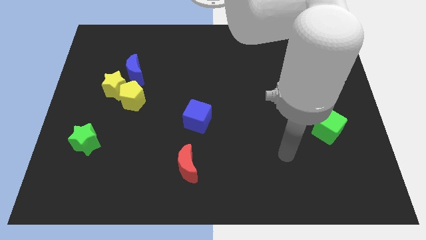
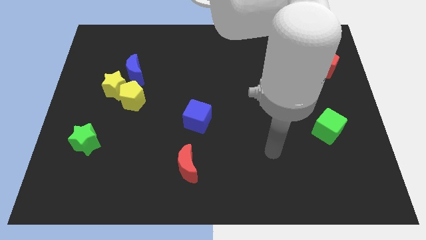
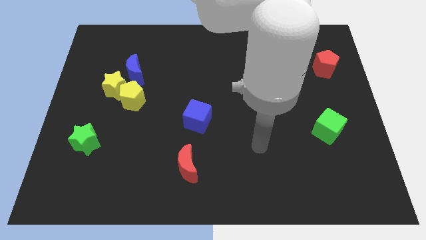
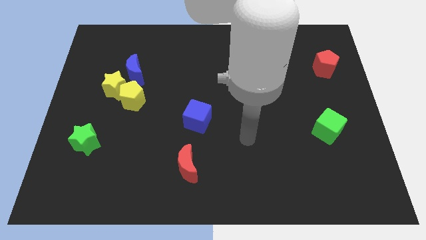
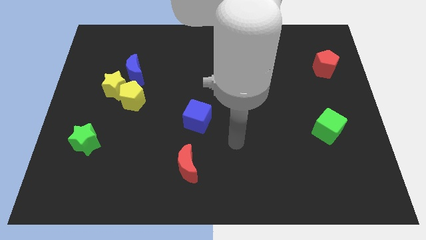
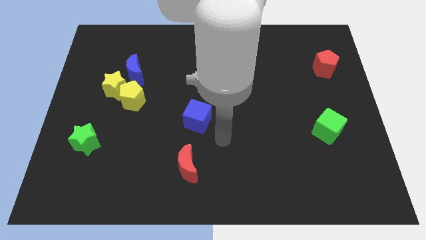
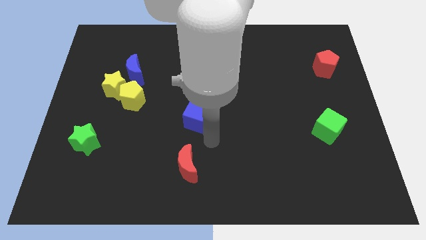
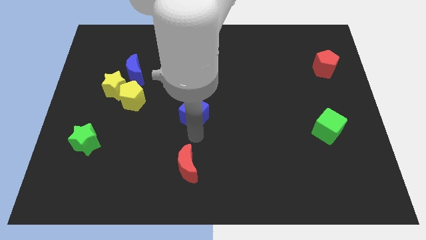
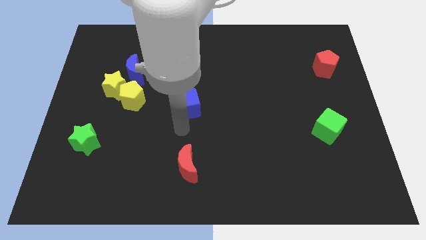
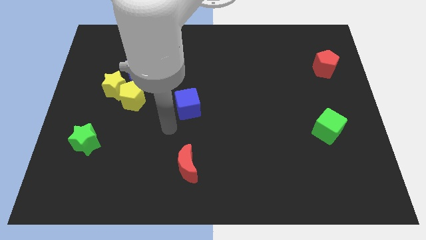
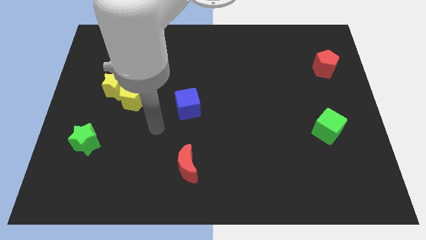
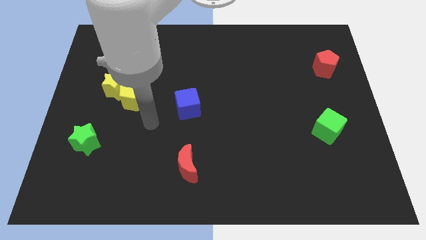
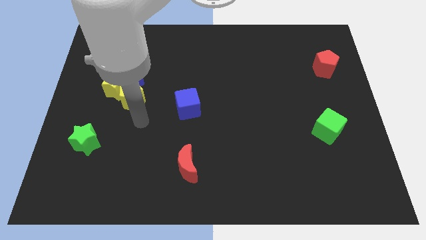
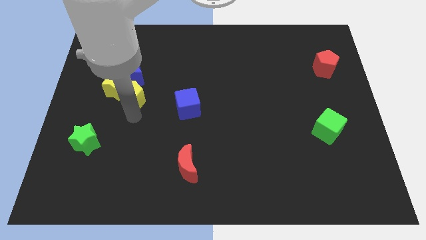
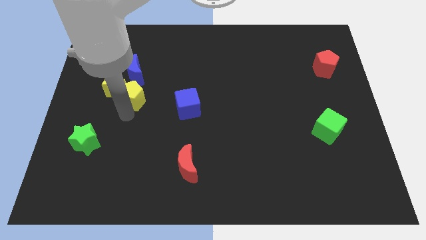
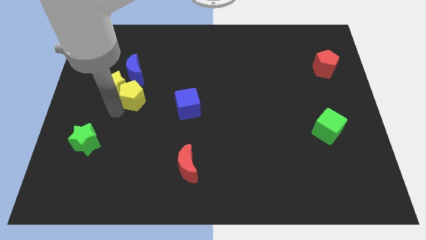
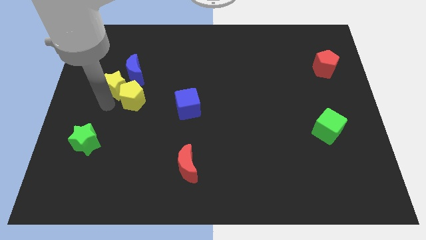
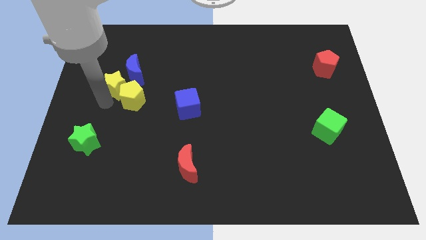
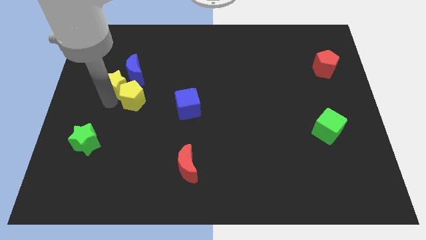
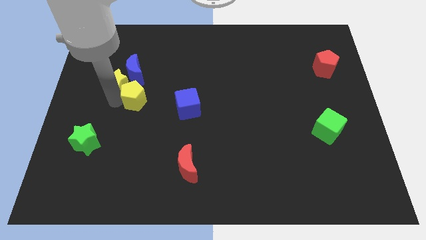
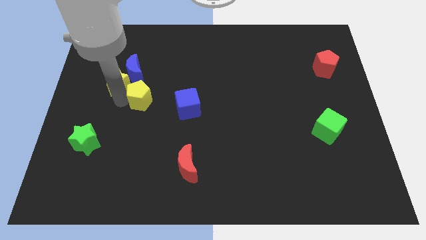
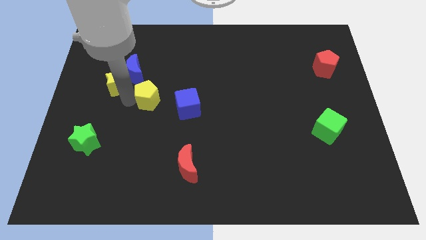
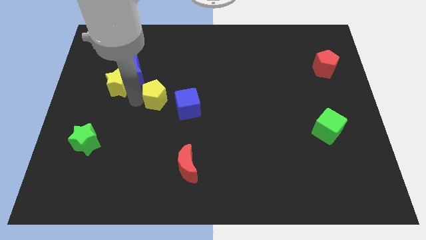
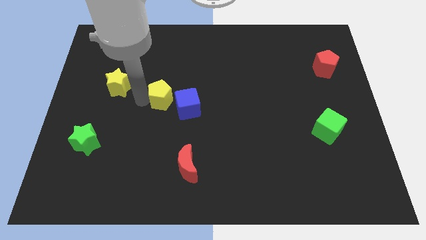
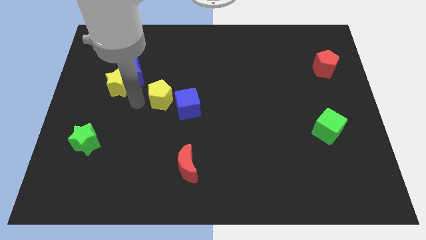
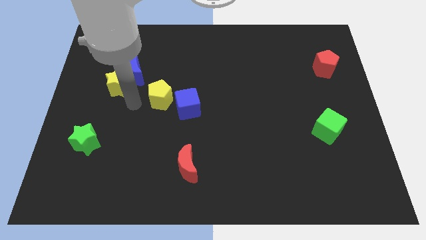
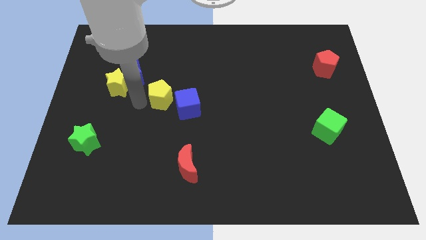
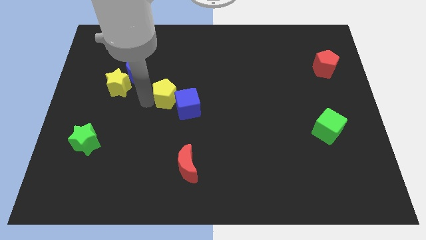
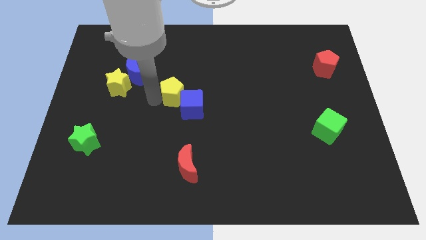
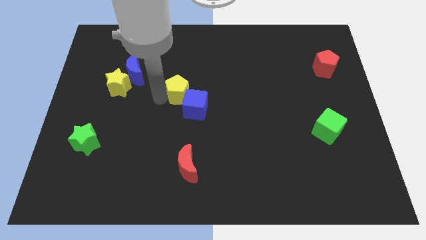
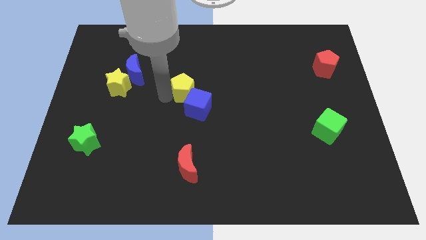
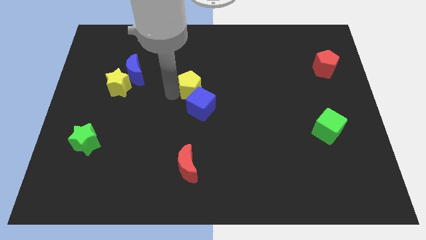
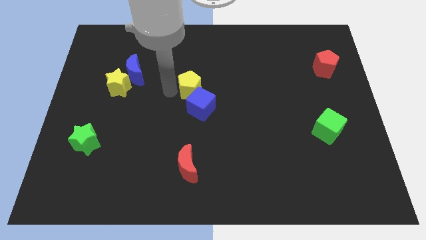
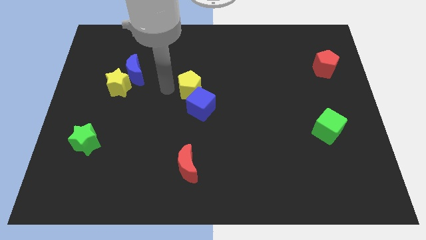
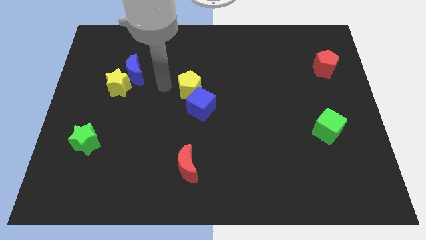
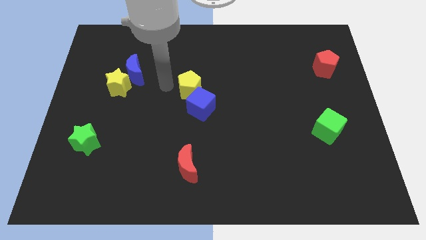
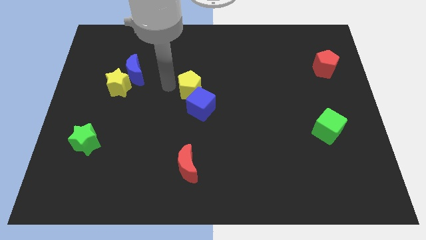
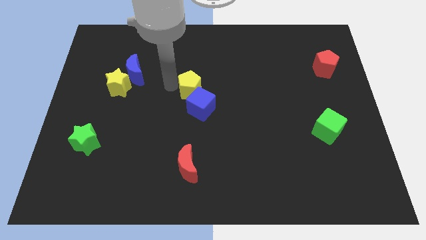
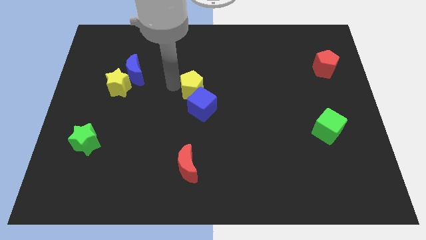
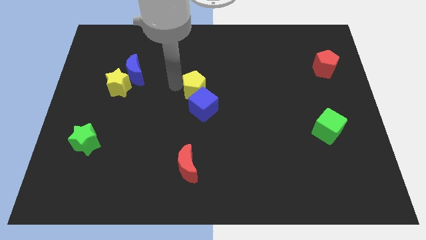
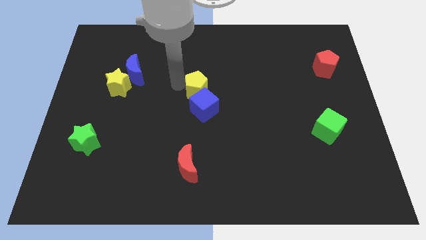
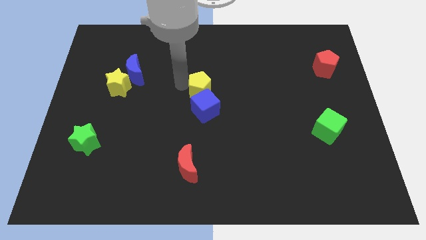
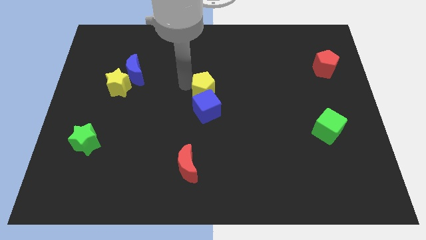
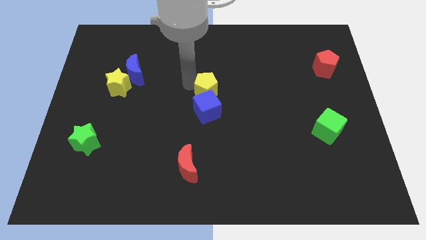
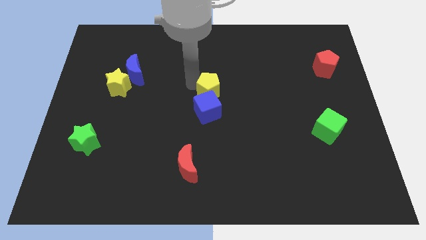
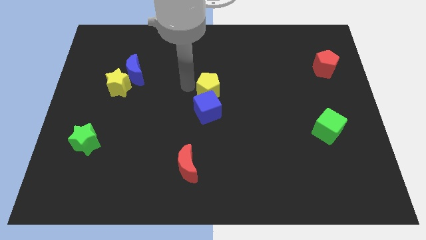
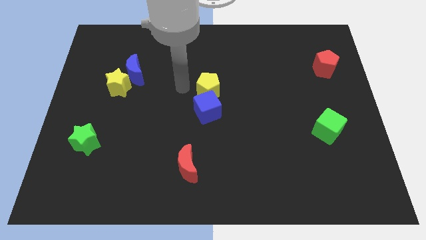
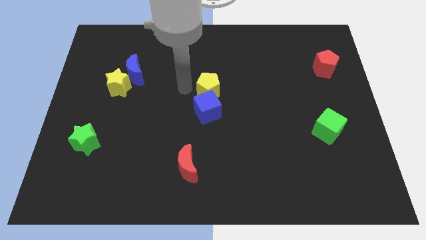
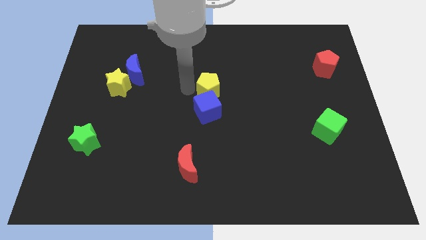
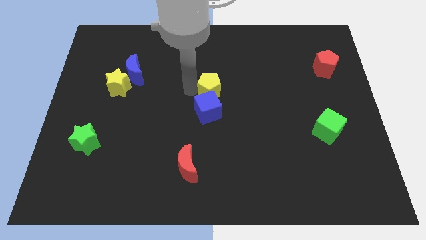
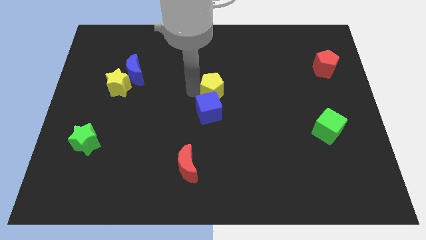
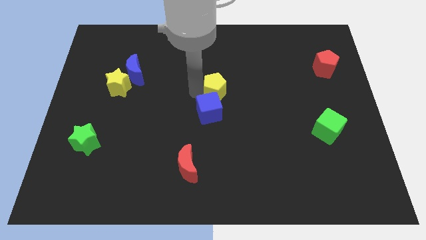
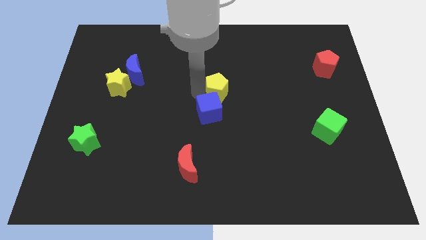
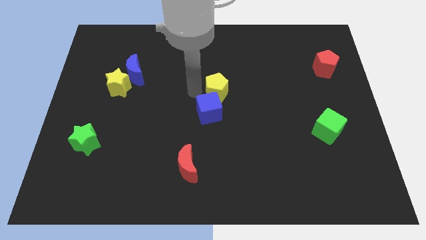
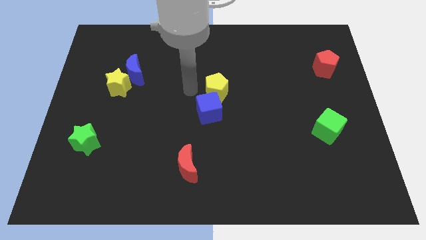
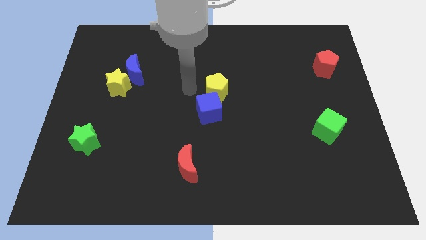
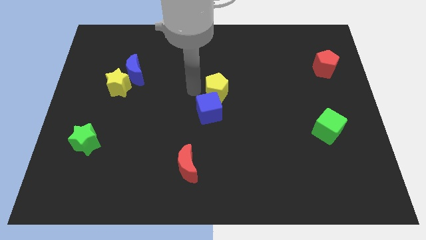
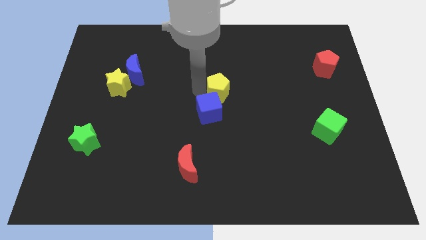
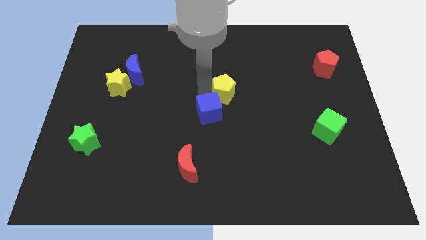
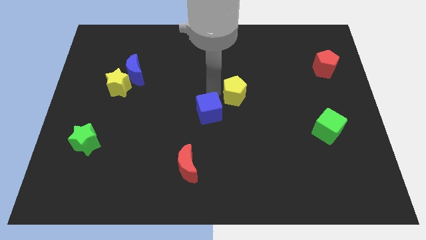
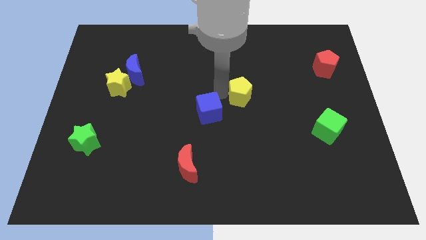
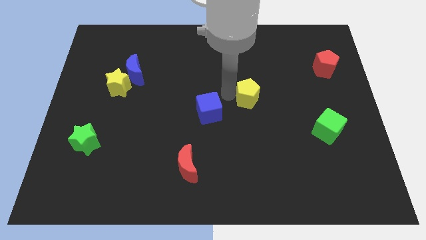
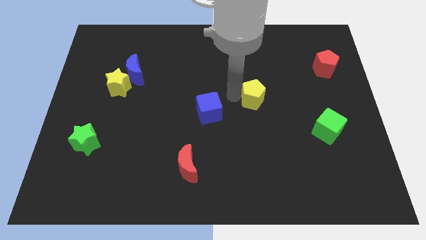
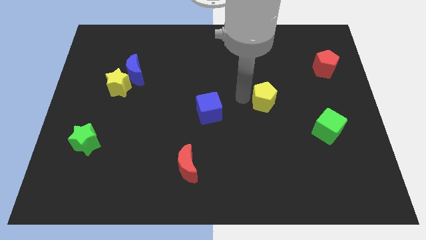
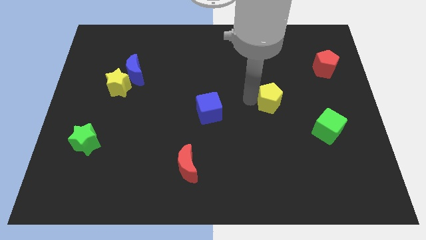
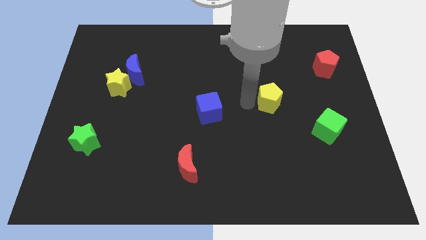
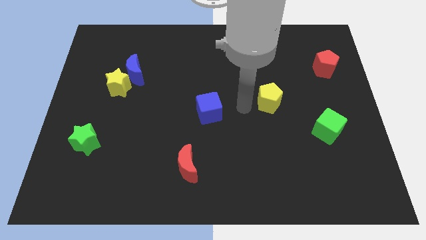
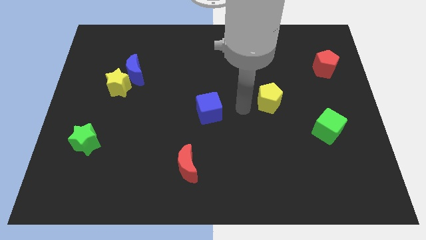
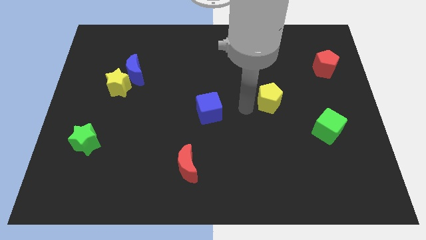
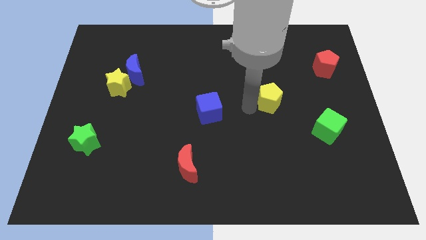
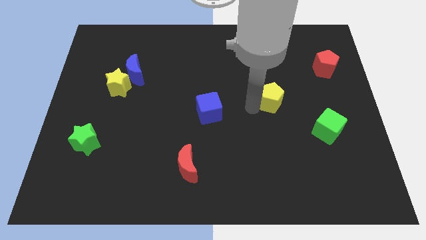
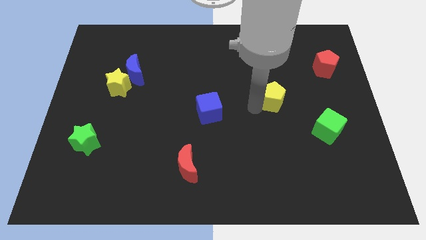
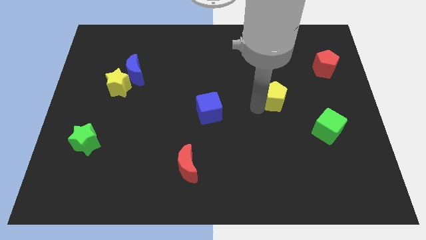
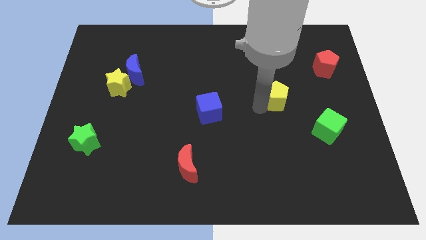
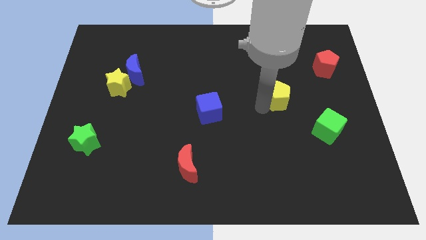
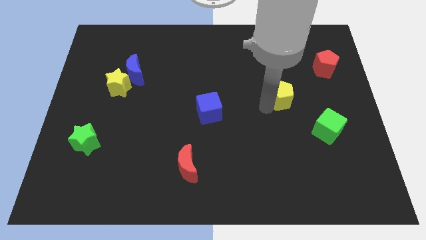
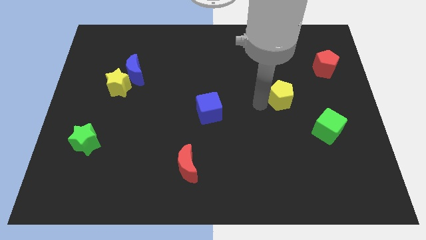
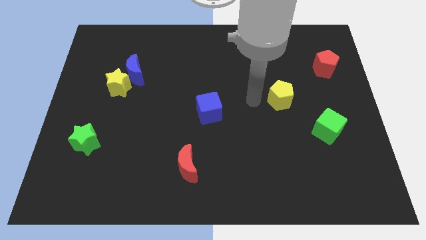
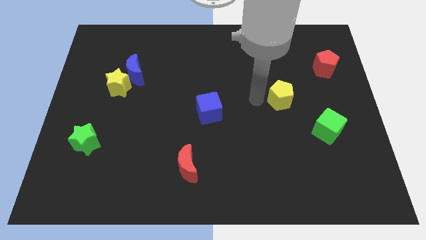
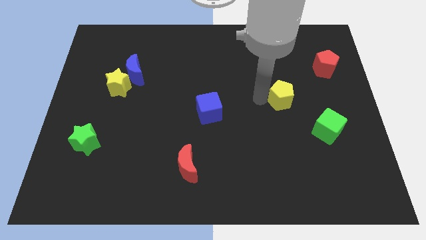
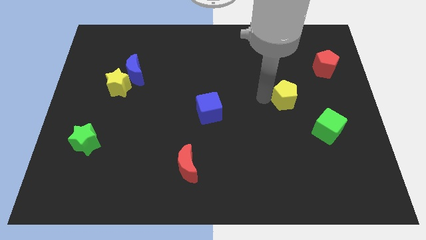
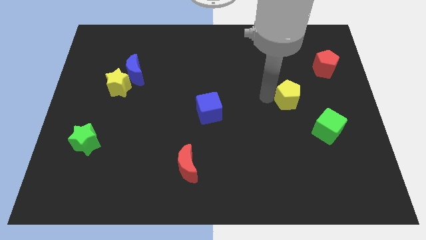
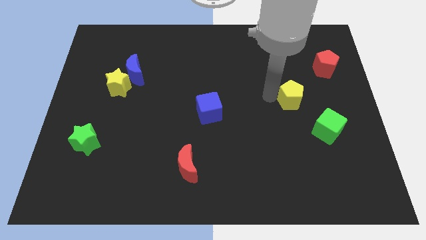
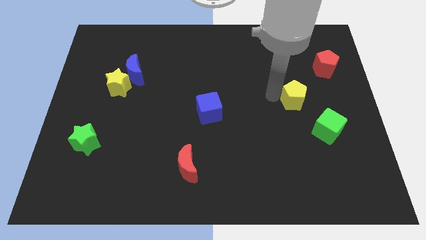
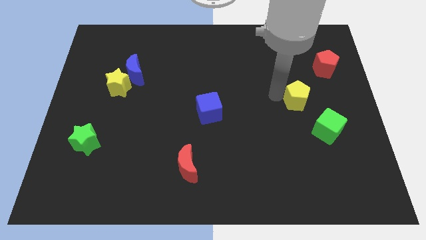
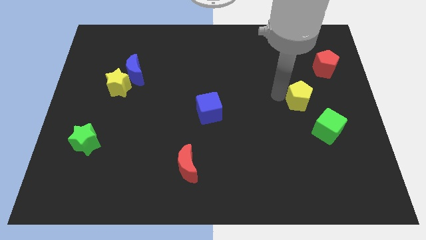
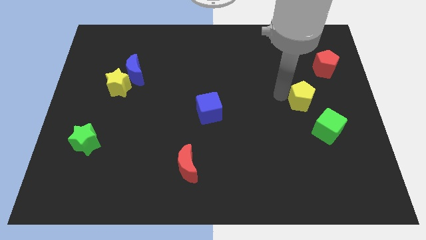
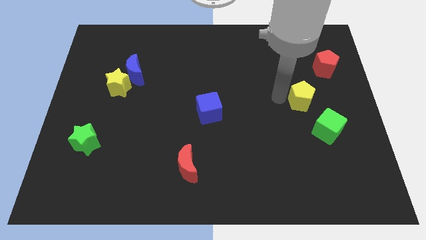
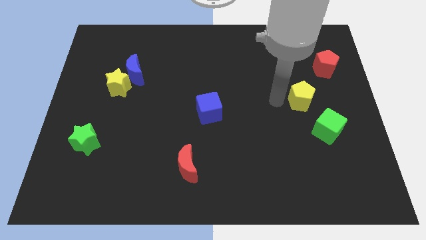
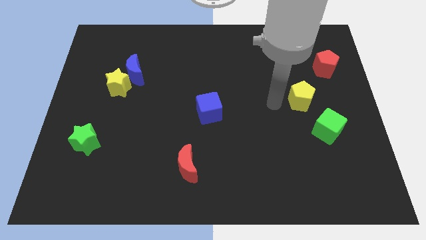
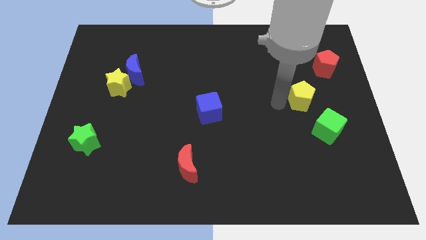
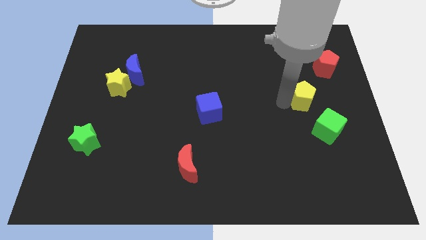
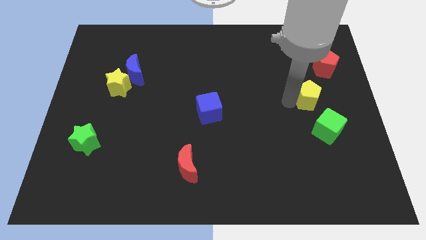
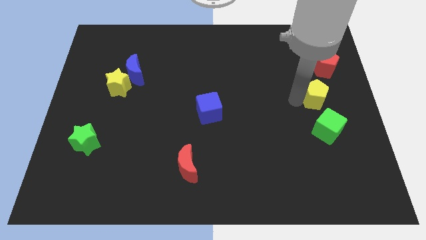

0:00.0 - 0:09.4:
slide the yellow pentagon to the bottom of the red pentagon
